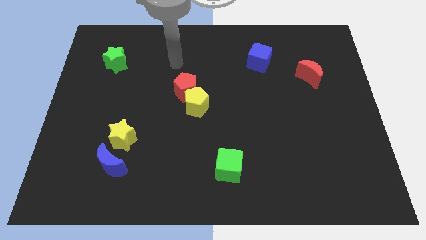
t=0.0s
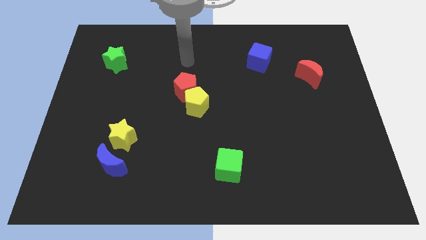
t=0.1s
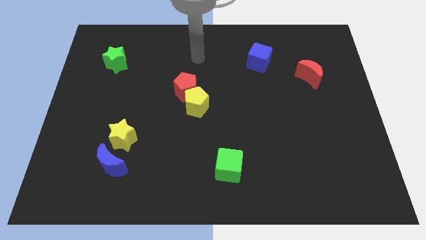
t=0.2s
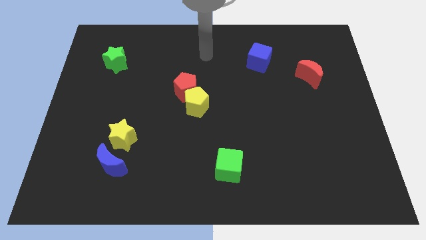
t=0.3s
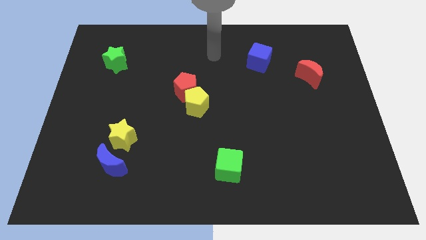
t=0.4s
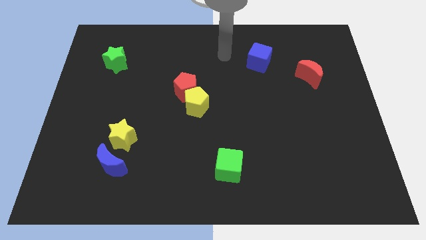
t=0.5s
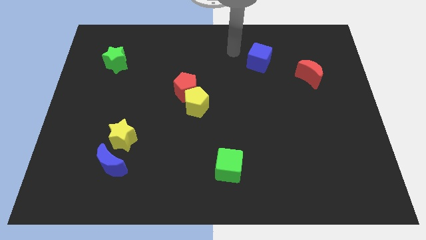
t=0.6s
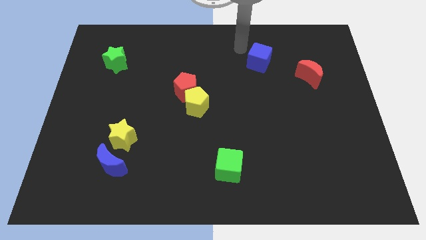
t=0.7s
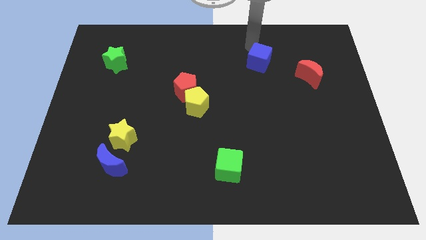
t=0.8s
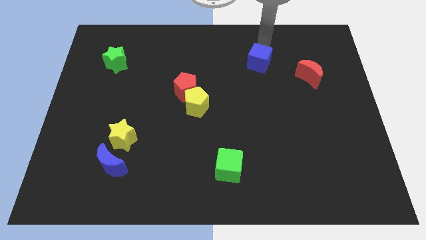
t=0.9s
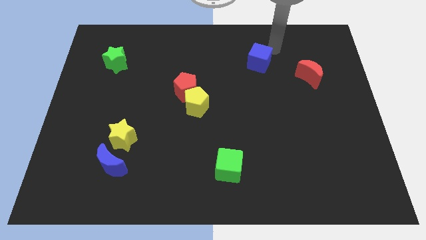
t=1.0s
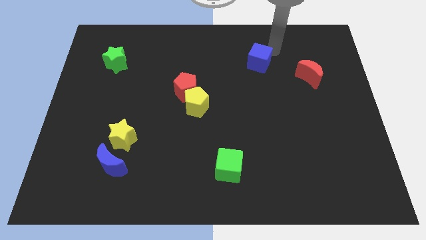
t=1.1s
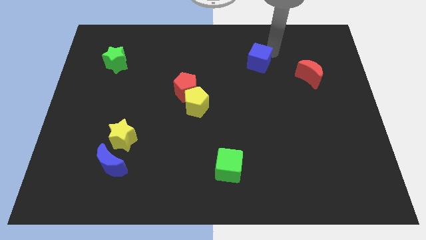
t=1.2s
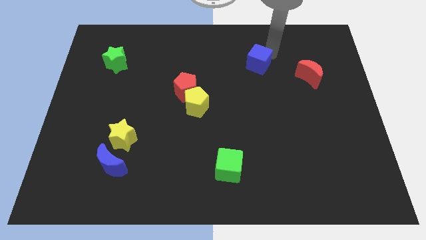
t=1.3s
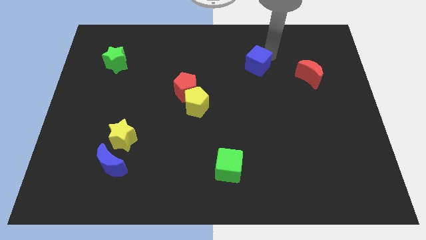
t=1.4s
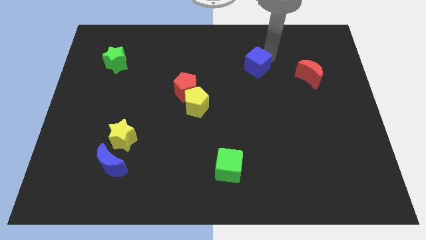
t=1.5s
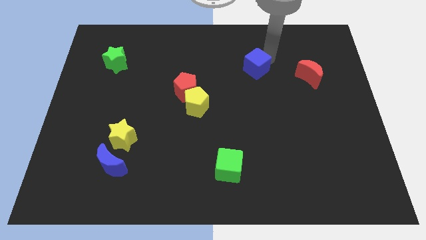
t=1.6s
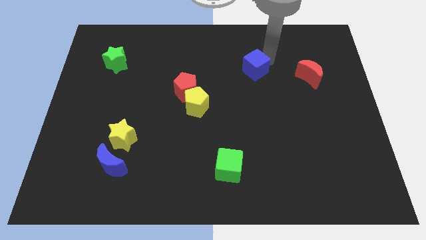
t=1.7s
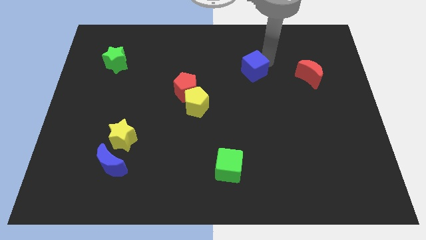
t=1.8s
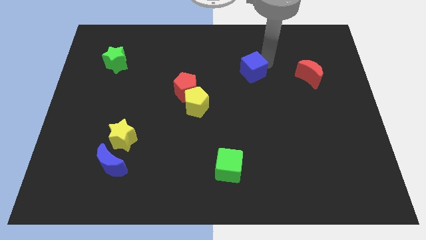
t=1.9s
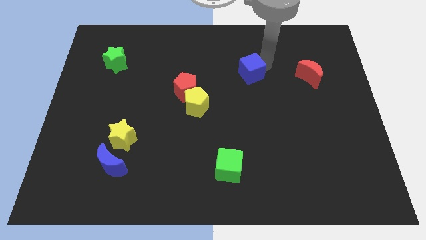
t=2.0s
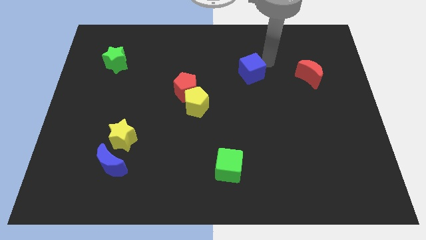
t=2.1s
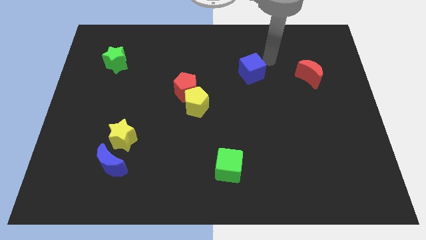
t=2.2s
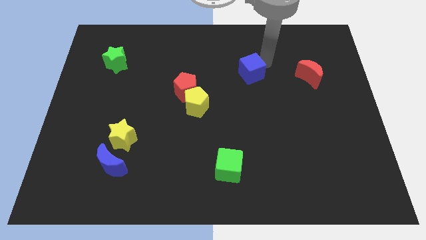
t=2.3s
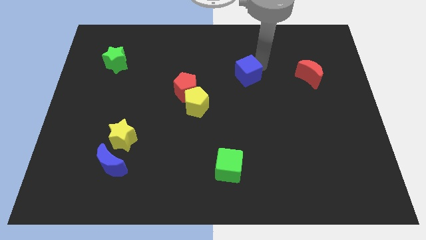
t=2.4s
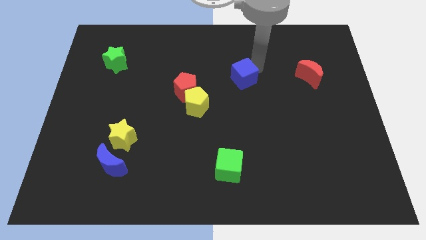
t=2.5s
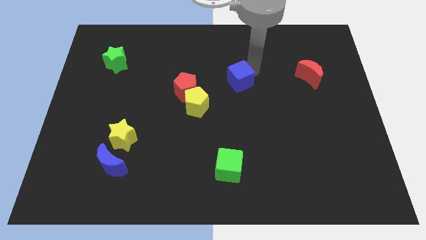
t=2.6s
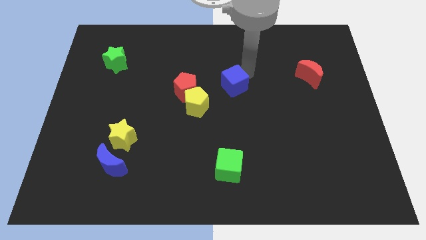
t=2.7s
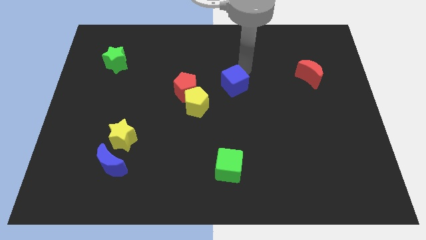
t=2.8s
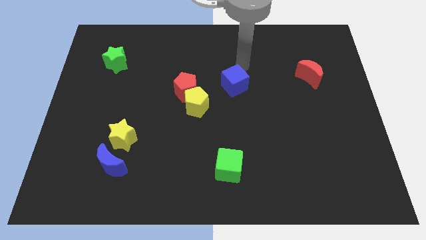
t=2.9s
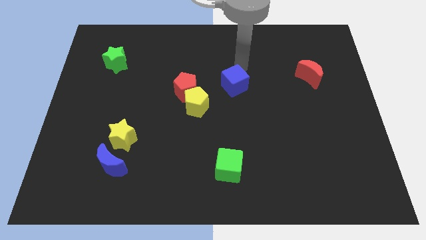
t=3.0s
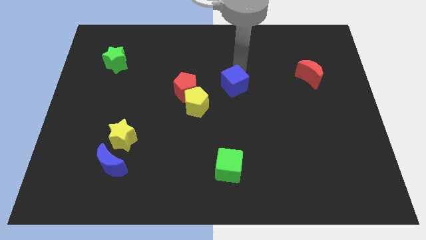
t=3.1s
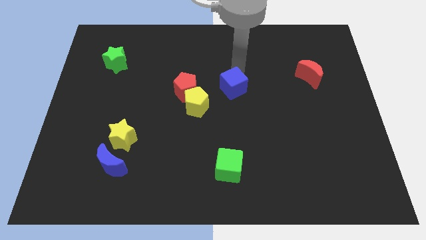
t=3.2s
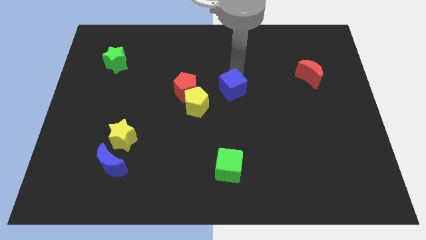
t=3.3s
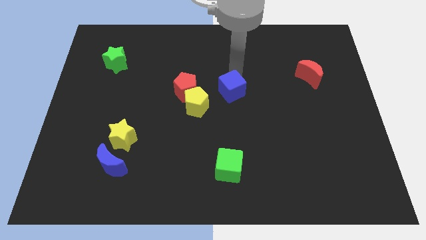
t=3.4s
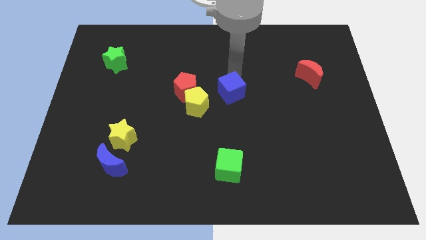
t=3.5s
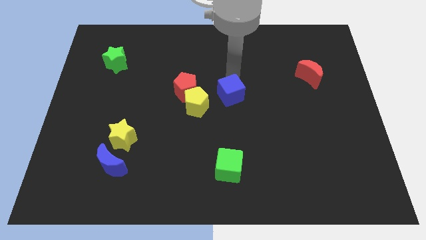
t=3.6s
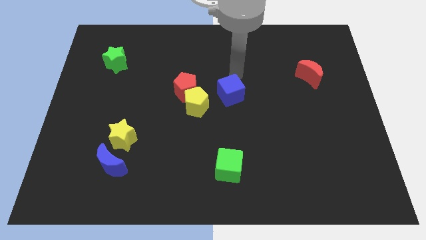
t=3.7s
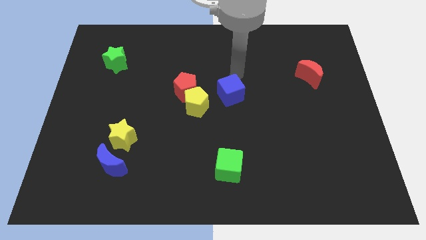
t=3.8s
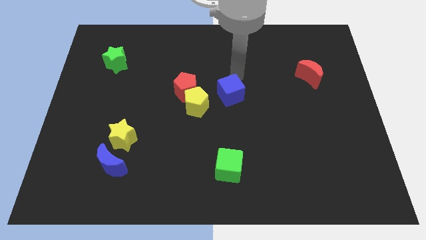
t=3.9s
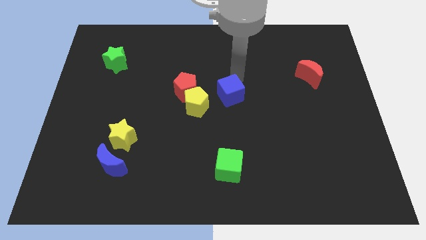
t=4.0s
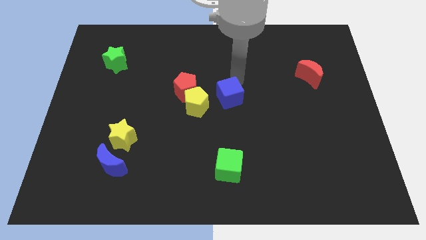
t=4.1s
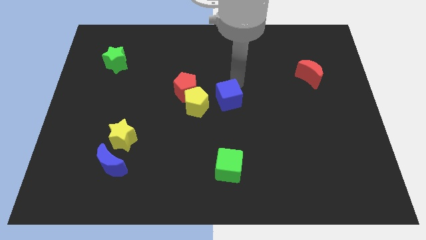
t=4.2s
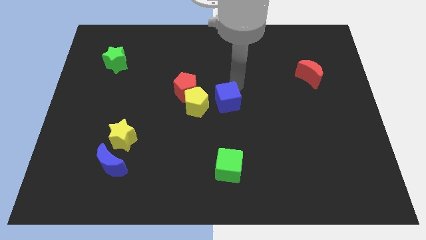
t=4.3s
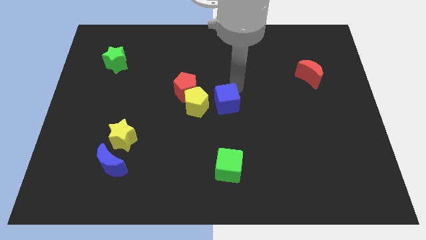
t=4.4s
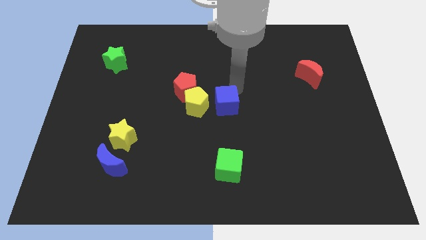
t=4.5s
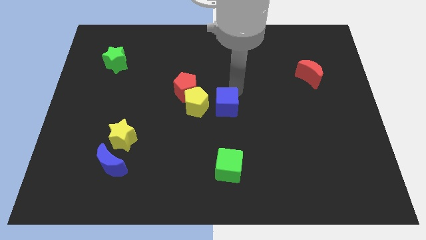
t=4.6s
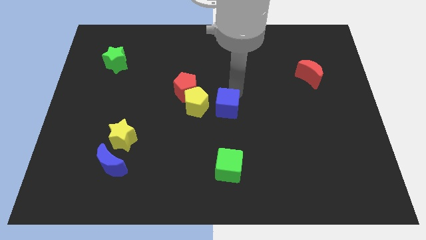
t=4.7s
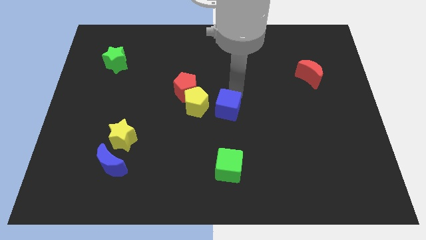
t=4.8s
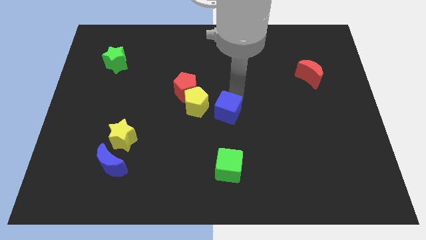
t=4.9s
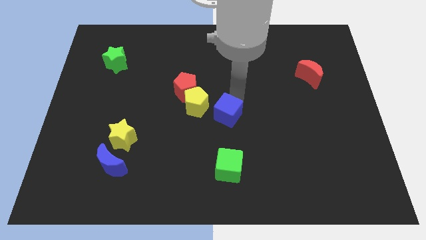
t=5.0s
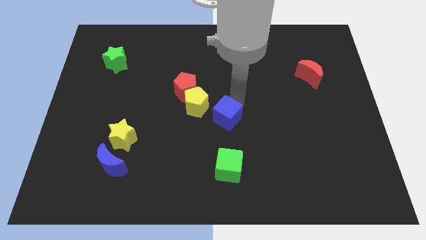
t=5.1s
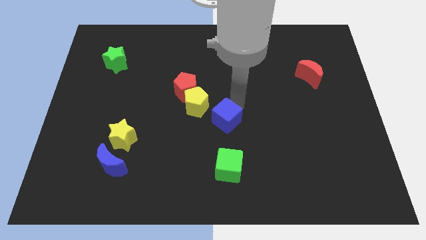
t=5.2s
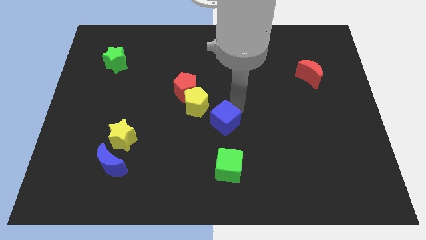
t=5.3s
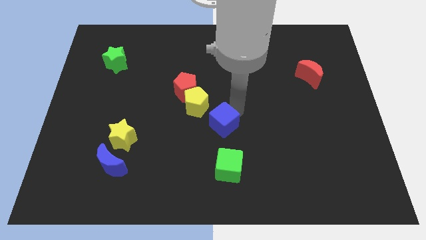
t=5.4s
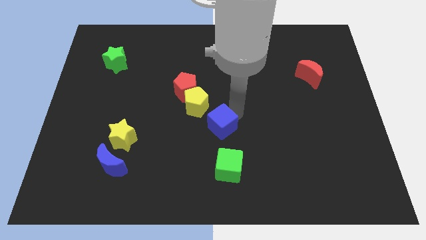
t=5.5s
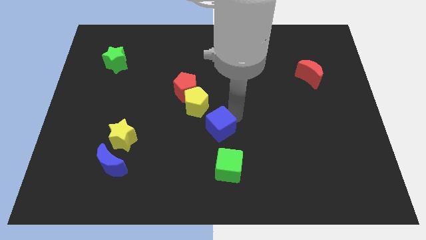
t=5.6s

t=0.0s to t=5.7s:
slide the blue cube downwards and to the left diagonally

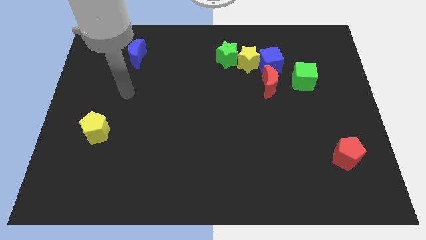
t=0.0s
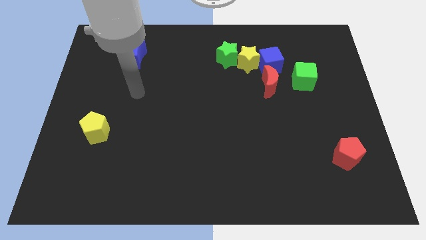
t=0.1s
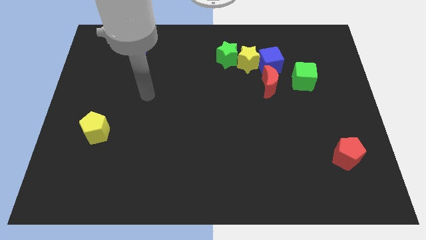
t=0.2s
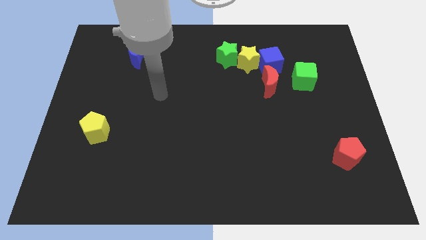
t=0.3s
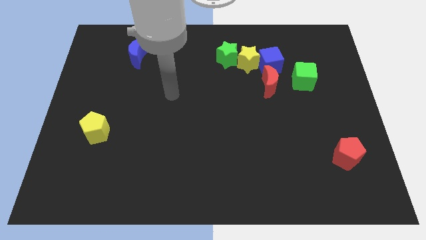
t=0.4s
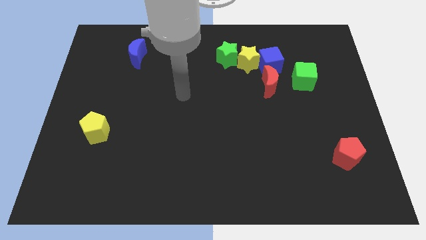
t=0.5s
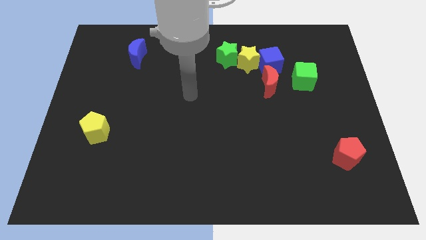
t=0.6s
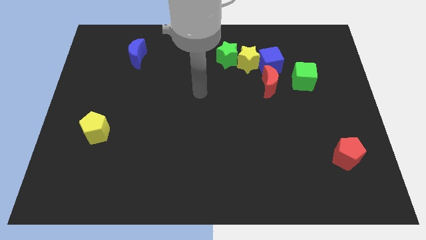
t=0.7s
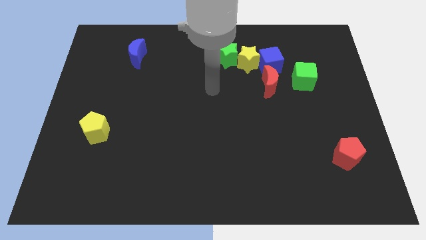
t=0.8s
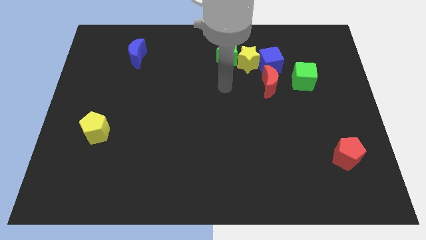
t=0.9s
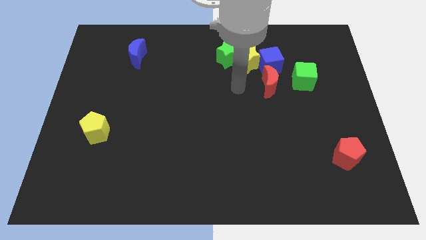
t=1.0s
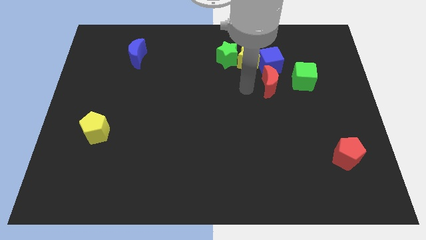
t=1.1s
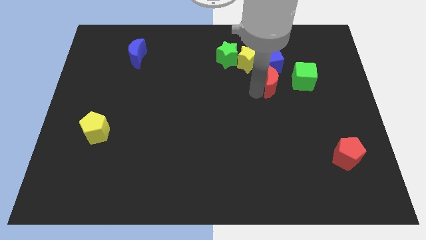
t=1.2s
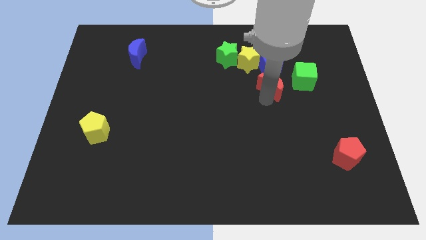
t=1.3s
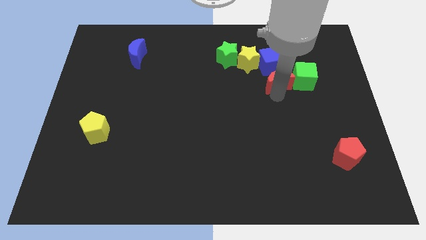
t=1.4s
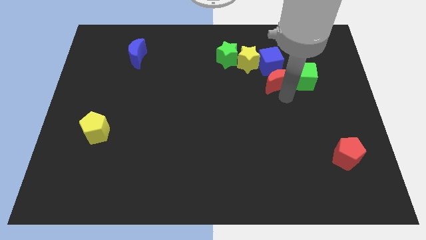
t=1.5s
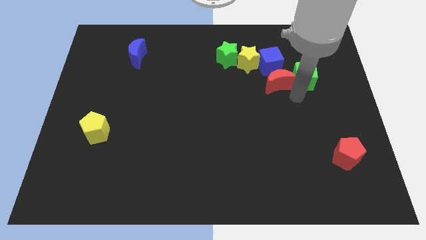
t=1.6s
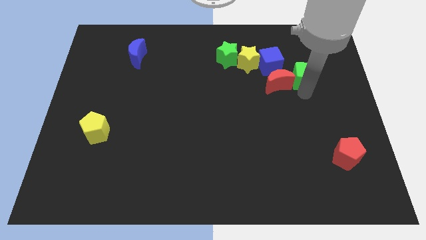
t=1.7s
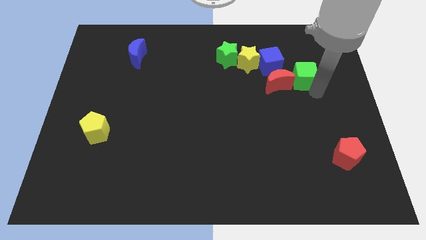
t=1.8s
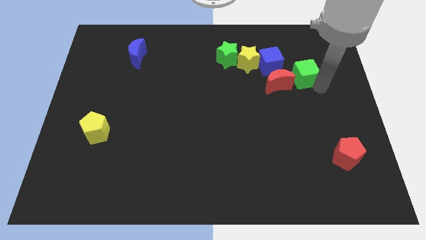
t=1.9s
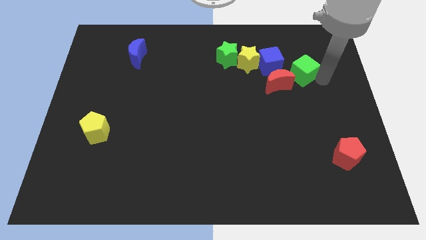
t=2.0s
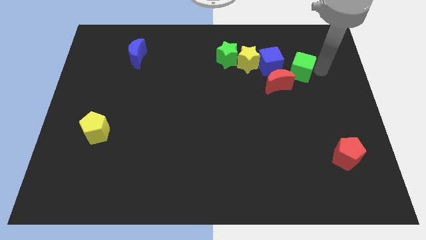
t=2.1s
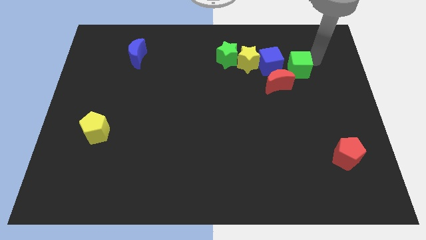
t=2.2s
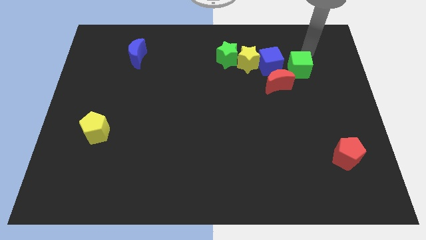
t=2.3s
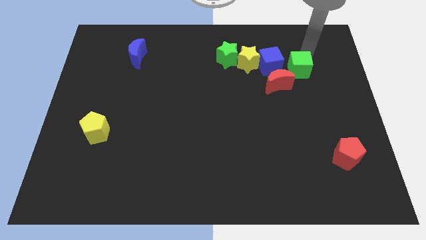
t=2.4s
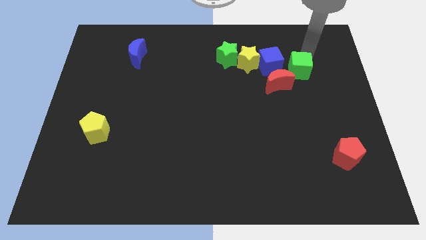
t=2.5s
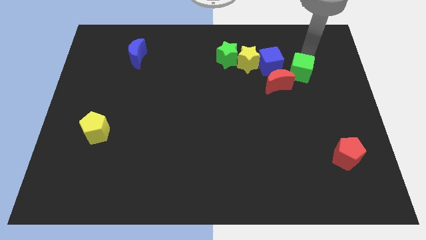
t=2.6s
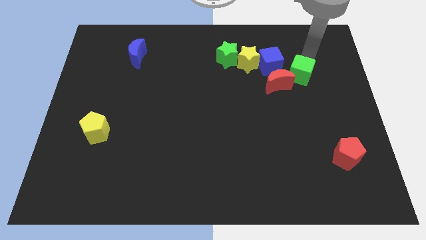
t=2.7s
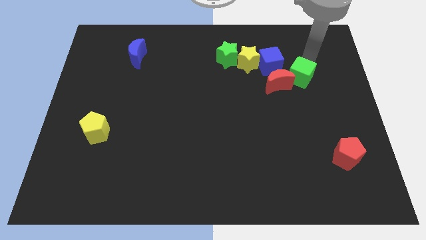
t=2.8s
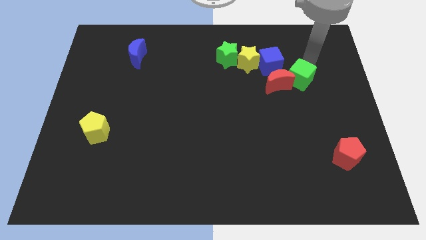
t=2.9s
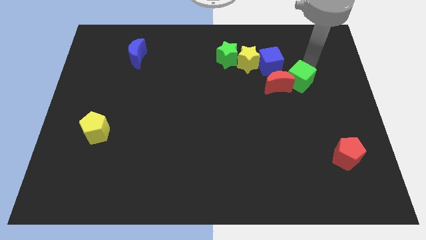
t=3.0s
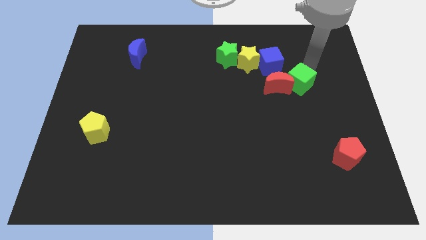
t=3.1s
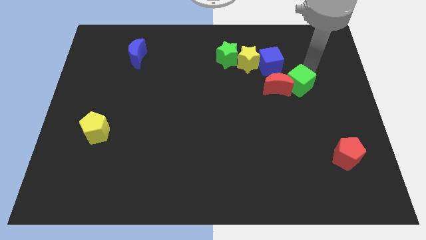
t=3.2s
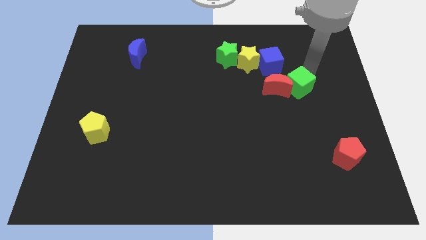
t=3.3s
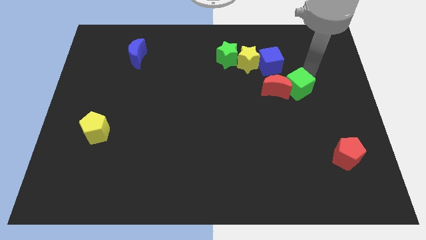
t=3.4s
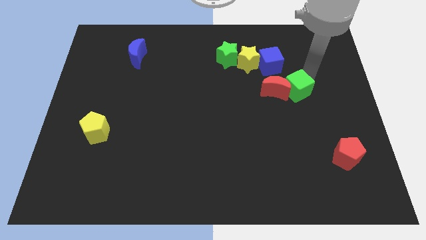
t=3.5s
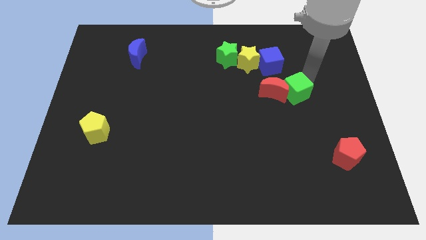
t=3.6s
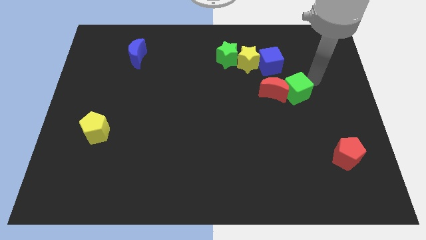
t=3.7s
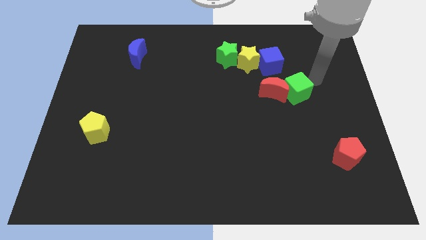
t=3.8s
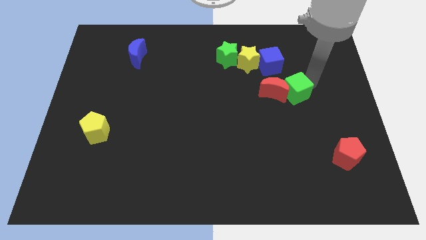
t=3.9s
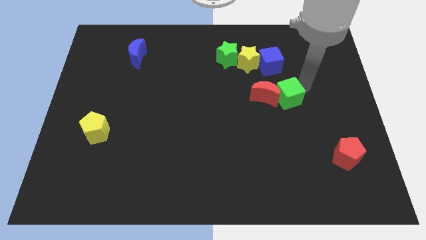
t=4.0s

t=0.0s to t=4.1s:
slightly push the green cube down and then to the left
